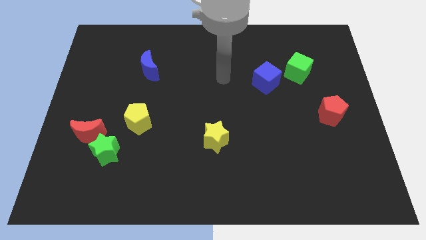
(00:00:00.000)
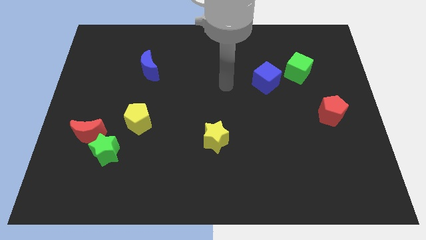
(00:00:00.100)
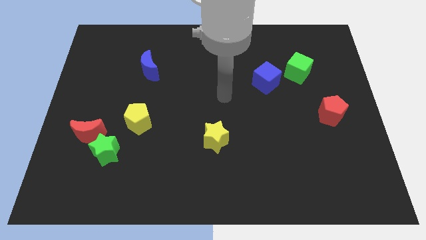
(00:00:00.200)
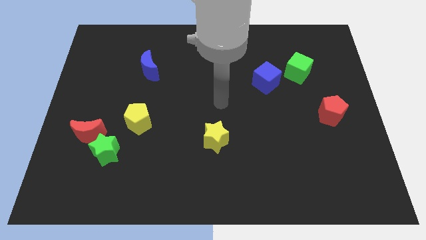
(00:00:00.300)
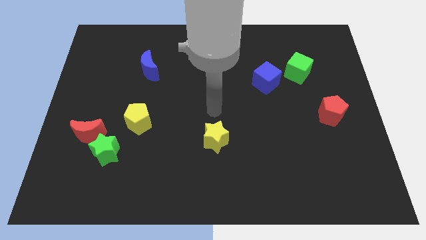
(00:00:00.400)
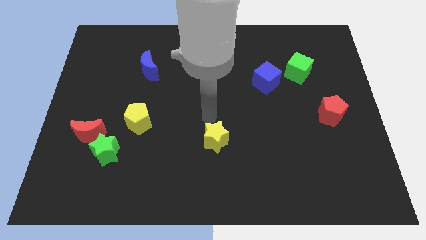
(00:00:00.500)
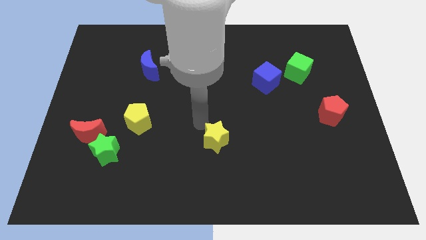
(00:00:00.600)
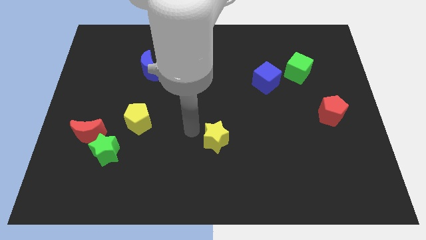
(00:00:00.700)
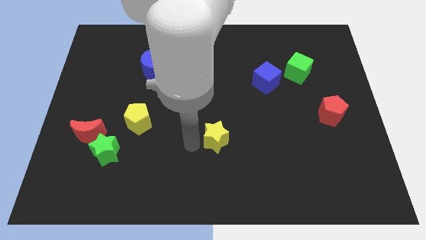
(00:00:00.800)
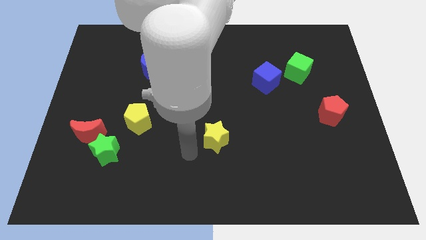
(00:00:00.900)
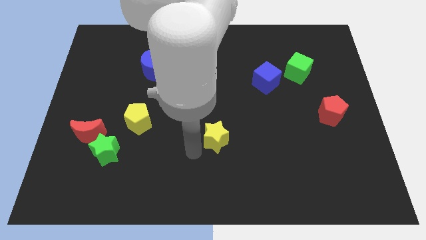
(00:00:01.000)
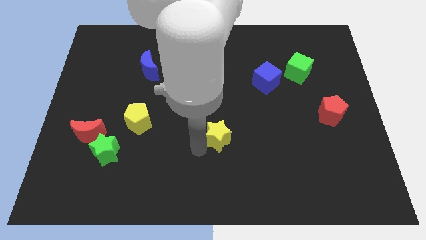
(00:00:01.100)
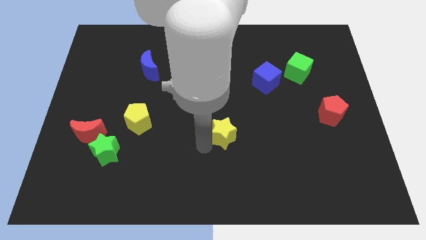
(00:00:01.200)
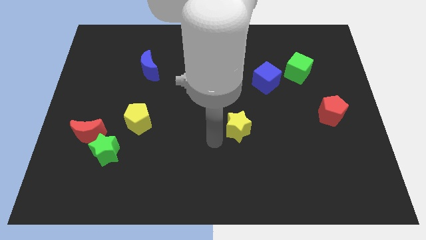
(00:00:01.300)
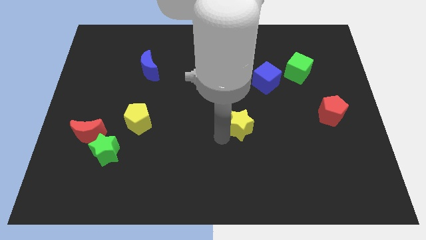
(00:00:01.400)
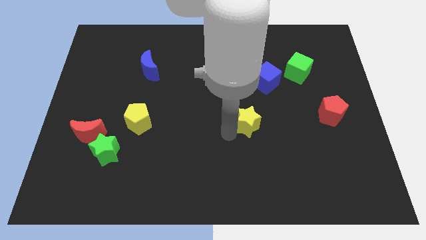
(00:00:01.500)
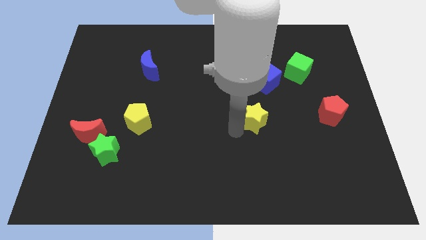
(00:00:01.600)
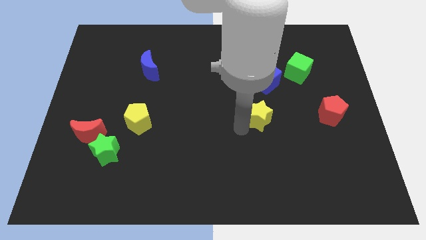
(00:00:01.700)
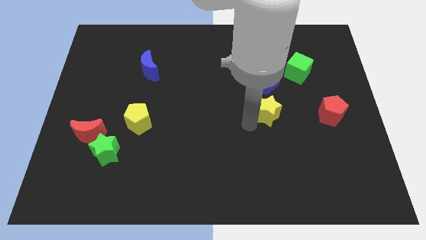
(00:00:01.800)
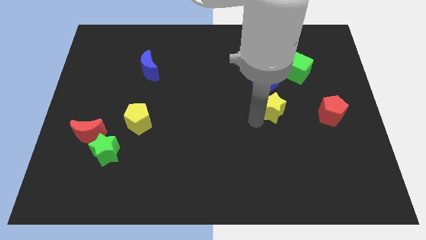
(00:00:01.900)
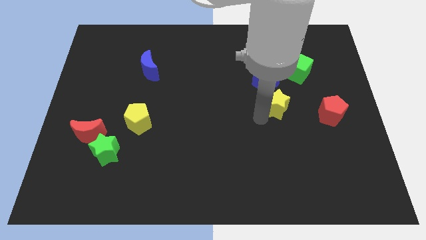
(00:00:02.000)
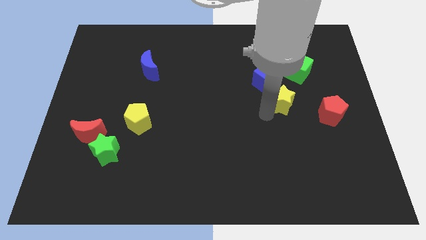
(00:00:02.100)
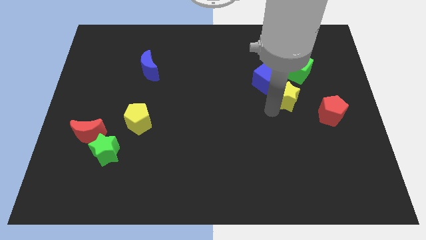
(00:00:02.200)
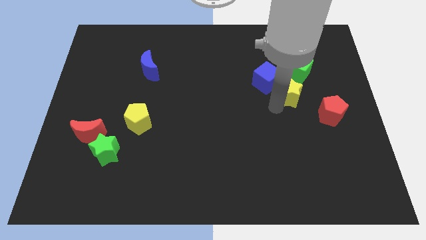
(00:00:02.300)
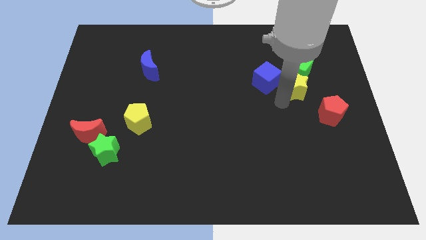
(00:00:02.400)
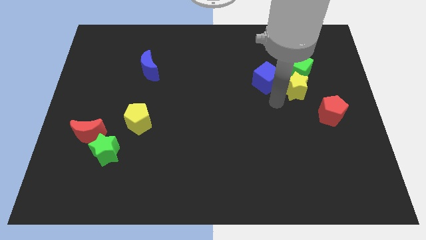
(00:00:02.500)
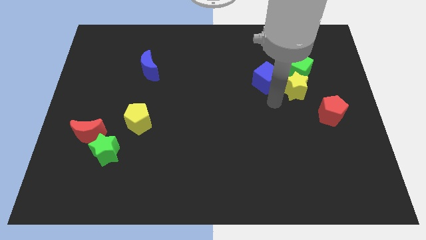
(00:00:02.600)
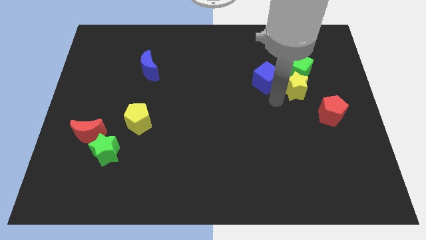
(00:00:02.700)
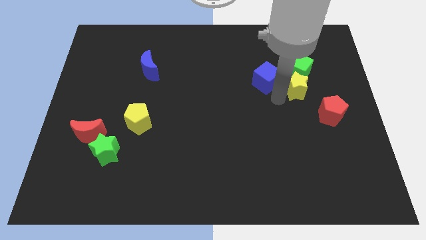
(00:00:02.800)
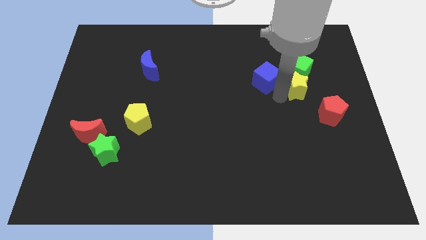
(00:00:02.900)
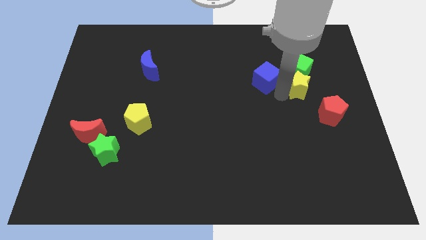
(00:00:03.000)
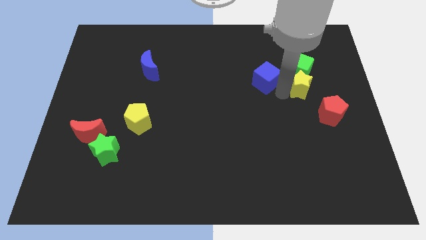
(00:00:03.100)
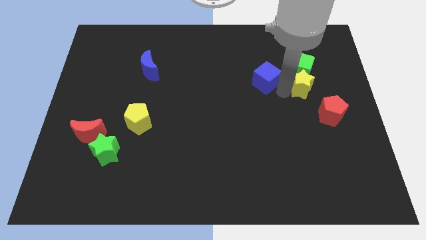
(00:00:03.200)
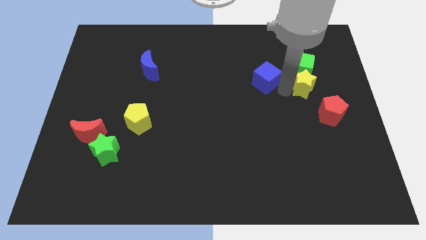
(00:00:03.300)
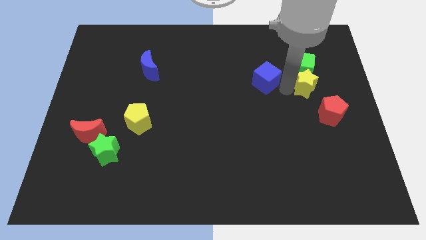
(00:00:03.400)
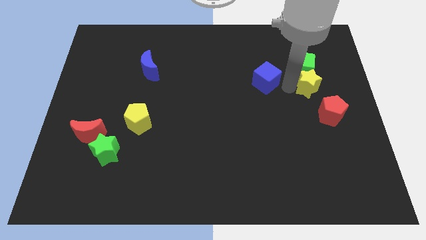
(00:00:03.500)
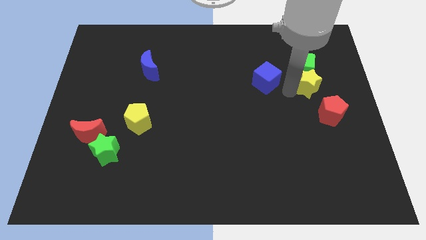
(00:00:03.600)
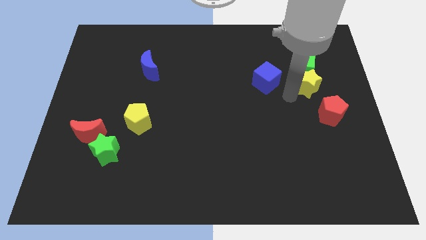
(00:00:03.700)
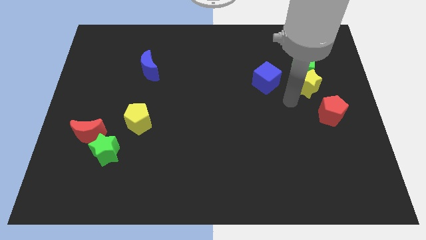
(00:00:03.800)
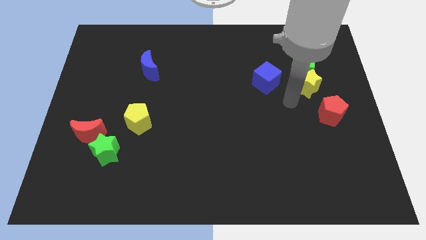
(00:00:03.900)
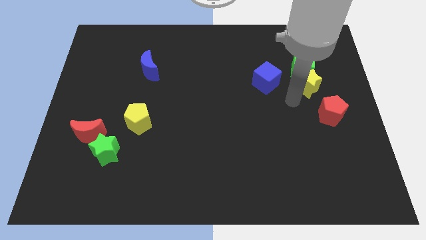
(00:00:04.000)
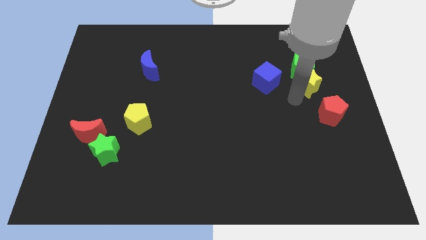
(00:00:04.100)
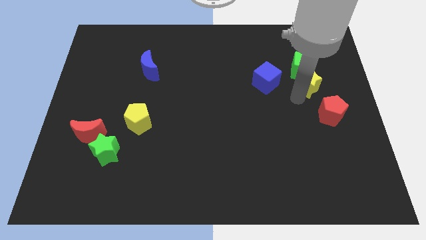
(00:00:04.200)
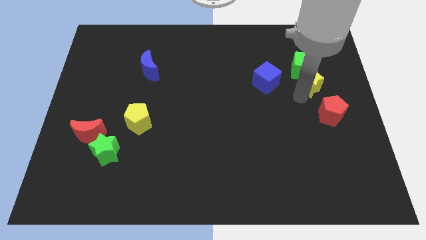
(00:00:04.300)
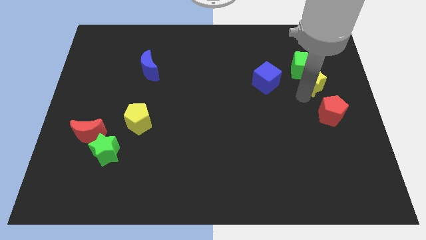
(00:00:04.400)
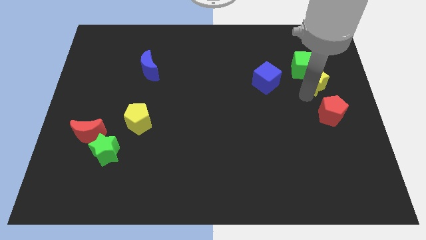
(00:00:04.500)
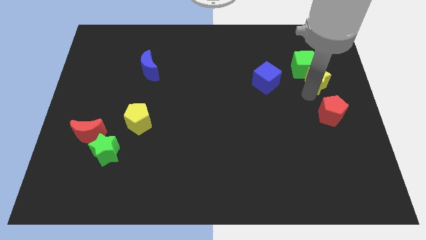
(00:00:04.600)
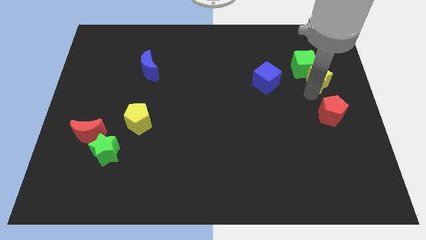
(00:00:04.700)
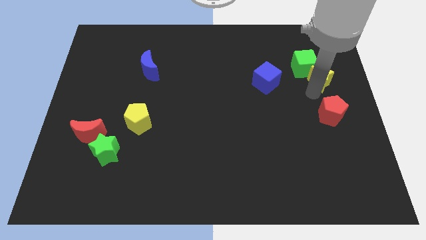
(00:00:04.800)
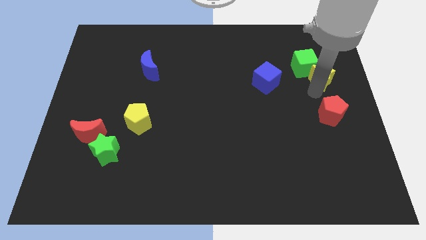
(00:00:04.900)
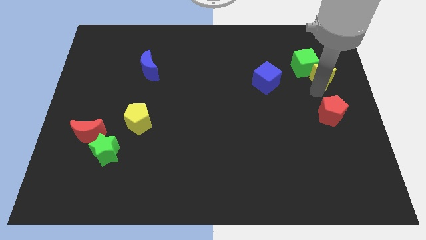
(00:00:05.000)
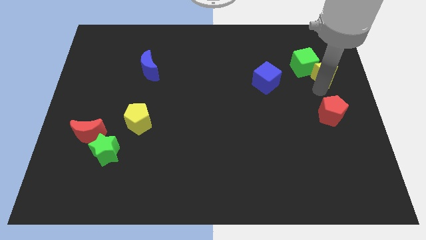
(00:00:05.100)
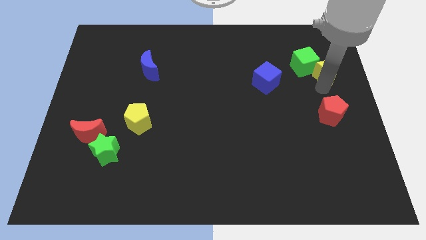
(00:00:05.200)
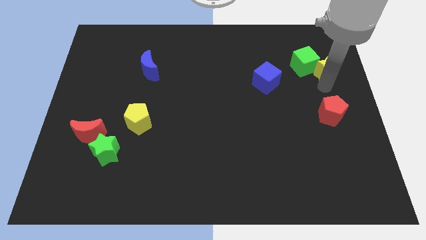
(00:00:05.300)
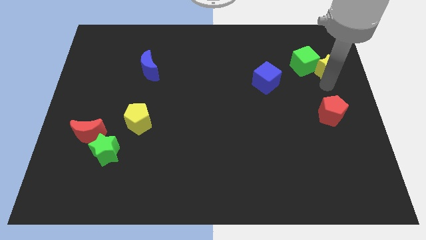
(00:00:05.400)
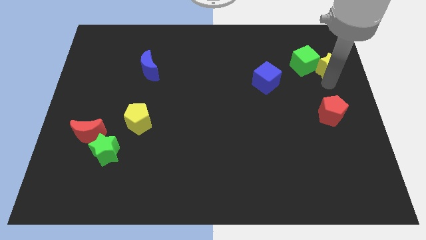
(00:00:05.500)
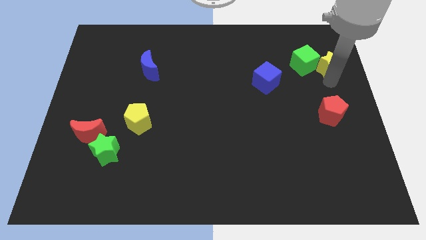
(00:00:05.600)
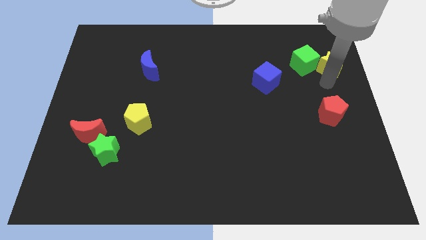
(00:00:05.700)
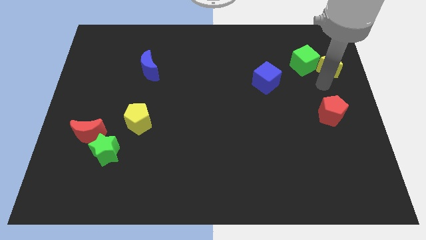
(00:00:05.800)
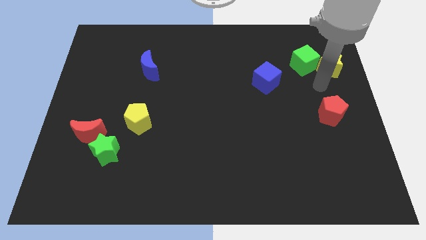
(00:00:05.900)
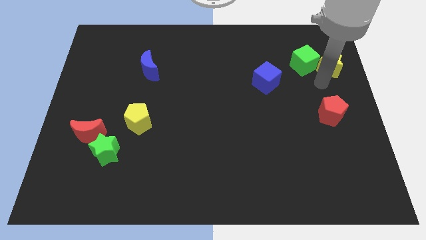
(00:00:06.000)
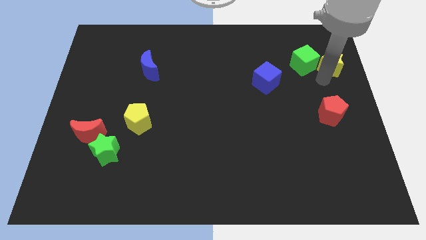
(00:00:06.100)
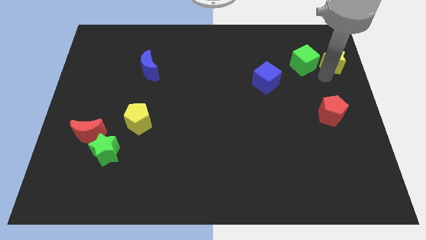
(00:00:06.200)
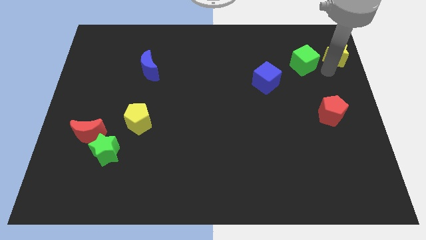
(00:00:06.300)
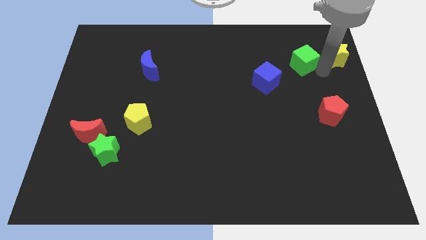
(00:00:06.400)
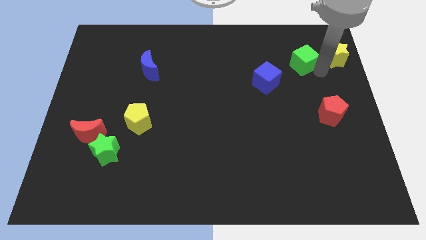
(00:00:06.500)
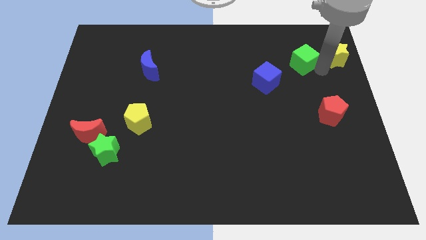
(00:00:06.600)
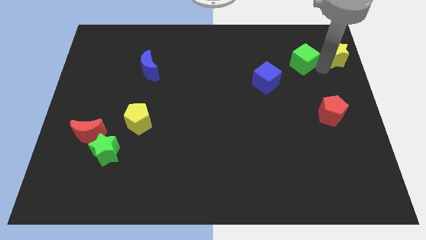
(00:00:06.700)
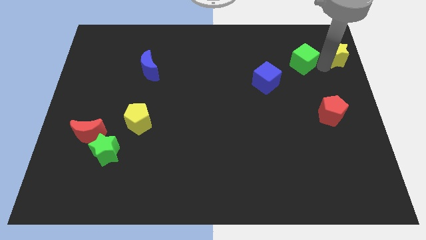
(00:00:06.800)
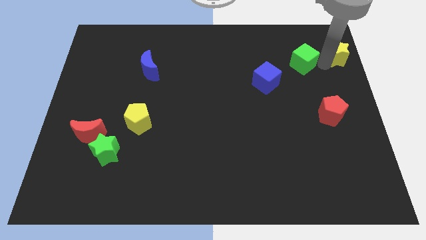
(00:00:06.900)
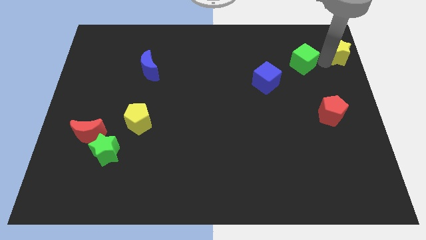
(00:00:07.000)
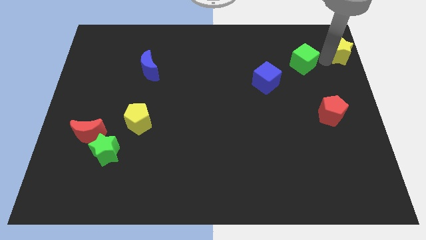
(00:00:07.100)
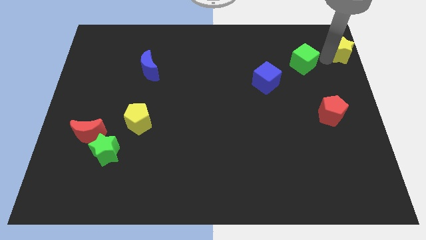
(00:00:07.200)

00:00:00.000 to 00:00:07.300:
slide the yellow star to the upper right corner
